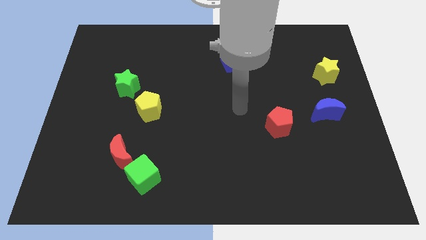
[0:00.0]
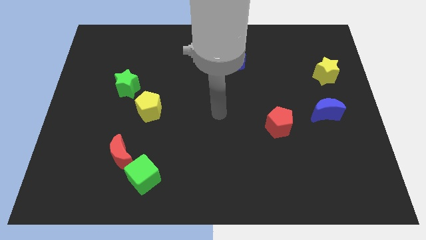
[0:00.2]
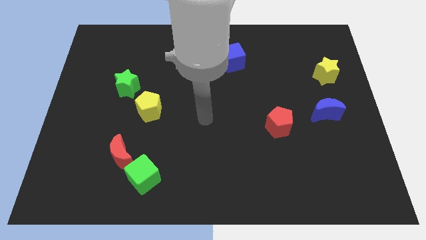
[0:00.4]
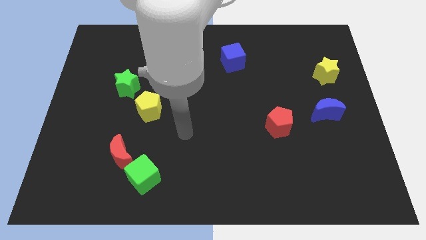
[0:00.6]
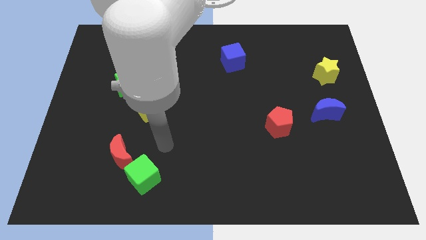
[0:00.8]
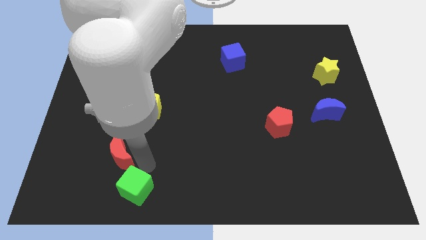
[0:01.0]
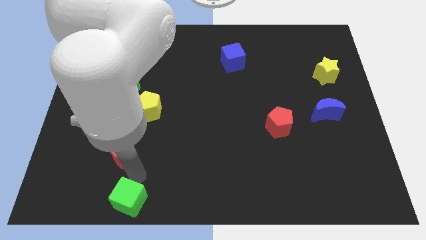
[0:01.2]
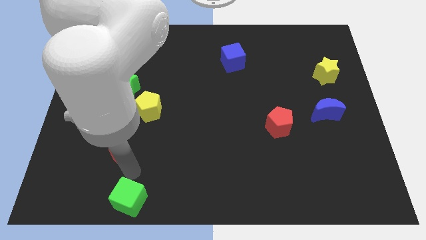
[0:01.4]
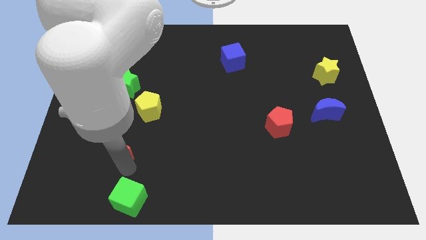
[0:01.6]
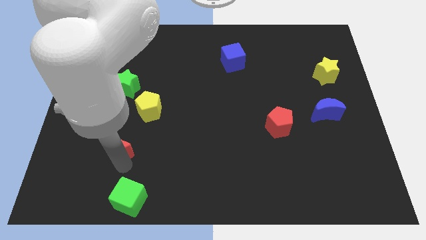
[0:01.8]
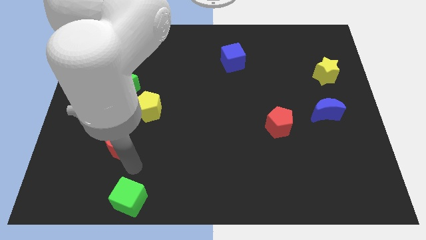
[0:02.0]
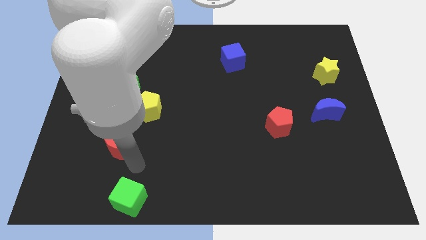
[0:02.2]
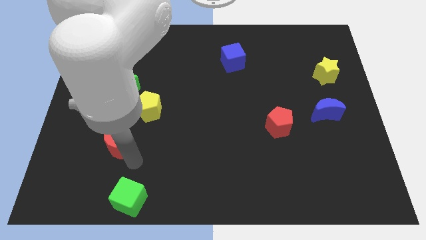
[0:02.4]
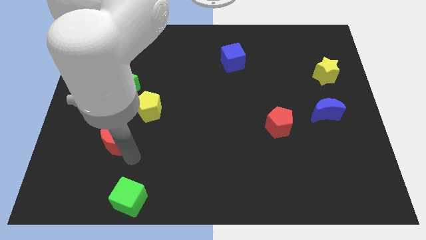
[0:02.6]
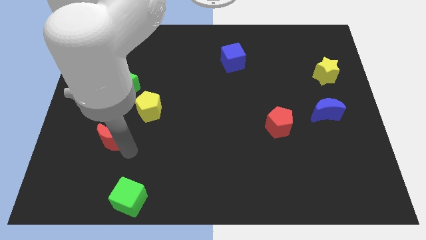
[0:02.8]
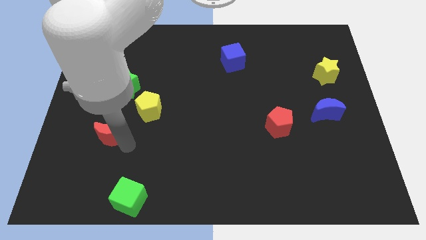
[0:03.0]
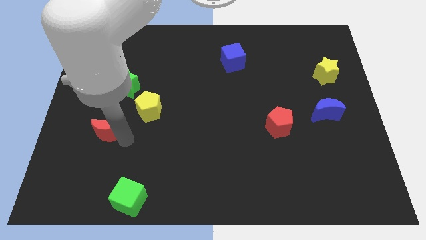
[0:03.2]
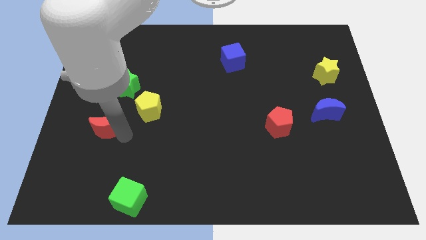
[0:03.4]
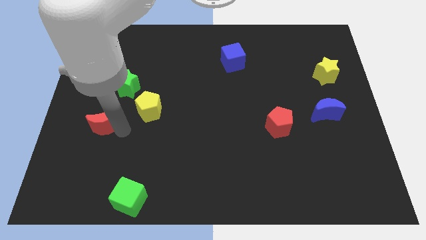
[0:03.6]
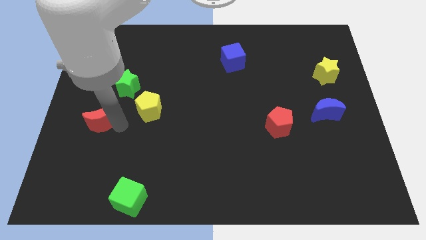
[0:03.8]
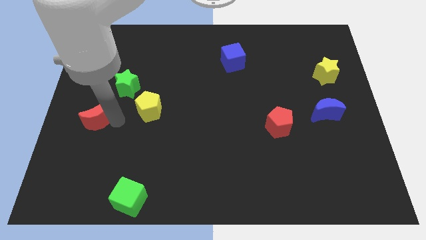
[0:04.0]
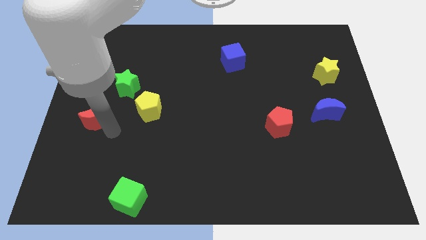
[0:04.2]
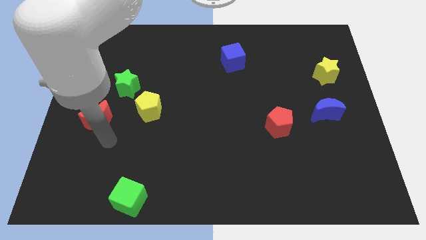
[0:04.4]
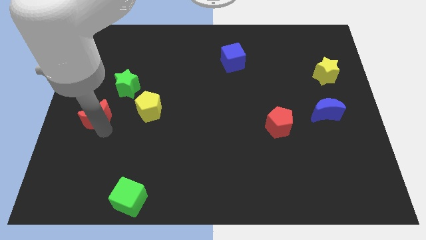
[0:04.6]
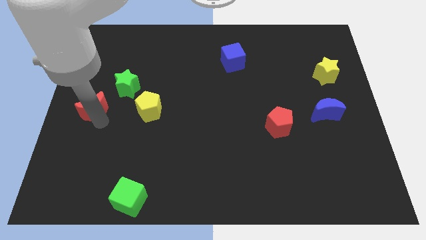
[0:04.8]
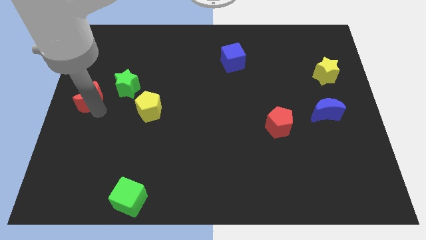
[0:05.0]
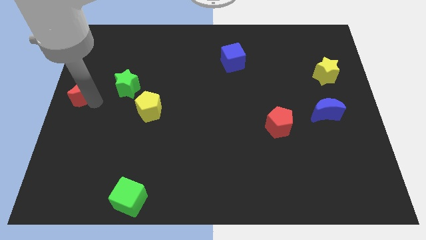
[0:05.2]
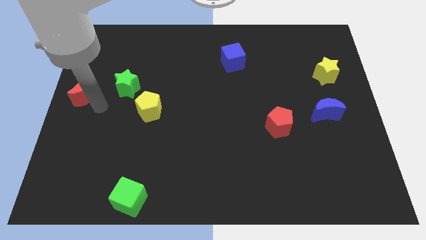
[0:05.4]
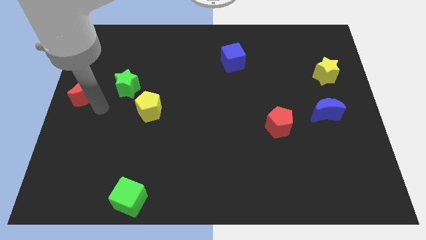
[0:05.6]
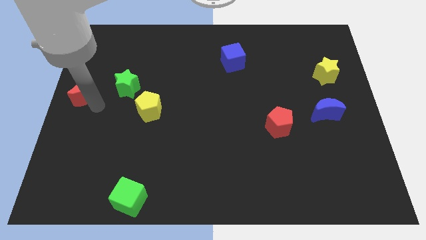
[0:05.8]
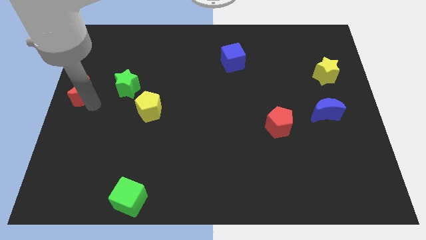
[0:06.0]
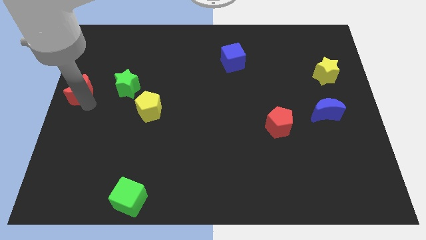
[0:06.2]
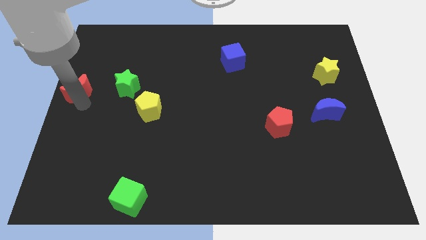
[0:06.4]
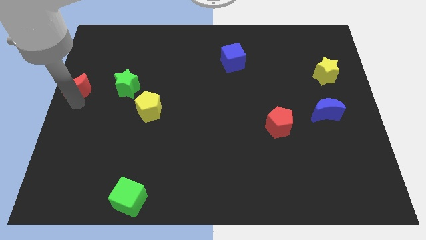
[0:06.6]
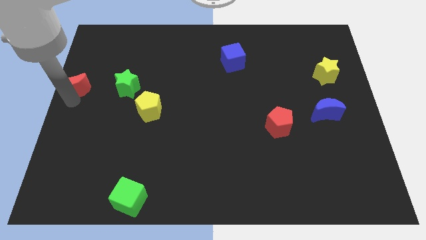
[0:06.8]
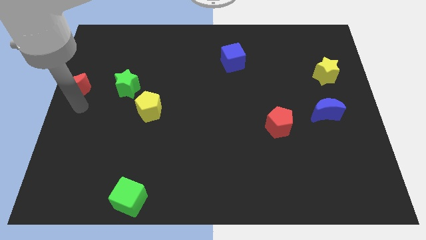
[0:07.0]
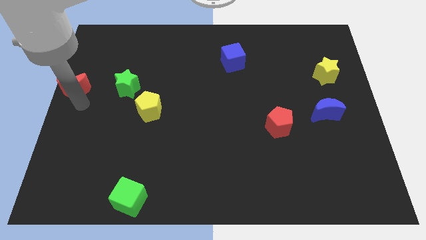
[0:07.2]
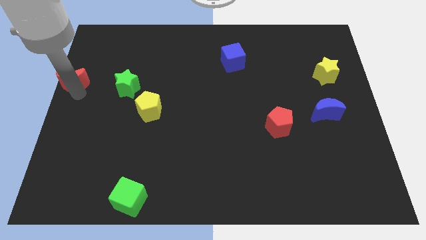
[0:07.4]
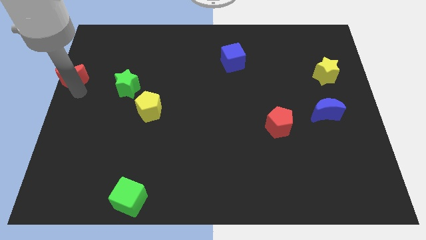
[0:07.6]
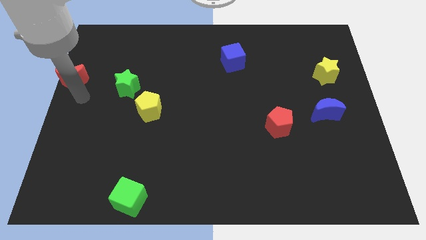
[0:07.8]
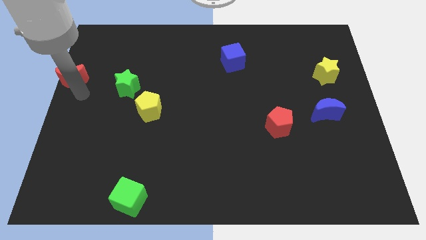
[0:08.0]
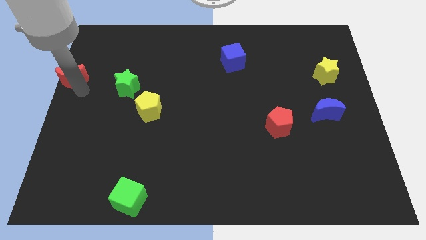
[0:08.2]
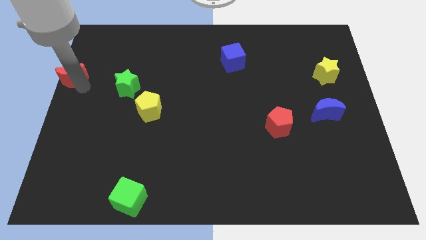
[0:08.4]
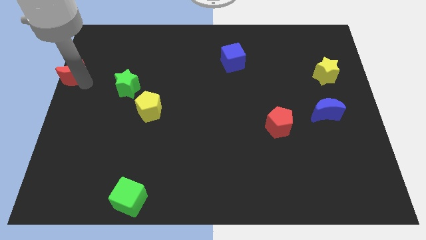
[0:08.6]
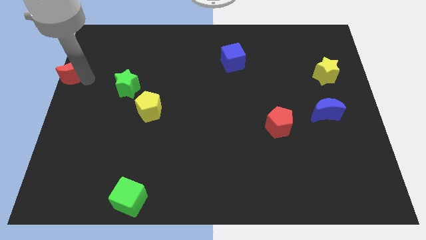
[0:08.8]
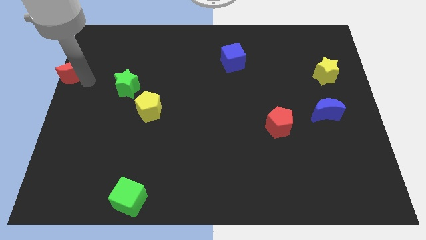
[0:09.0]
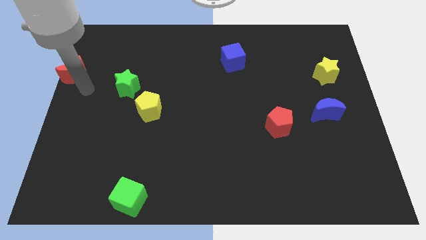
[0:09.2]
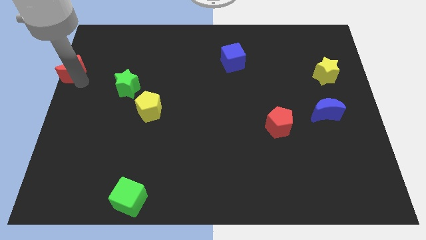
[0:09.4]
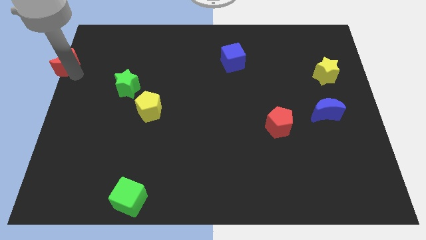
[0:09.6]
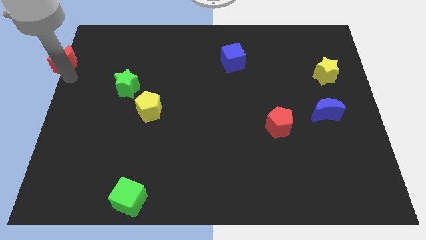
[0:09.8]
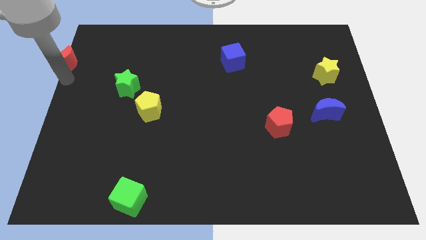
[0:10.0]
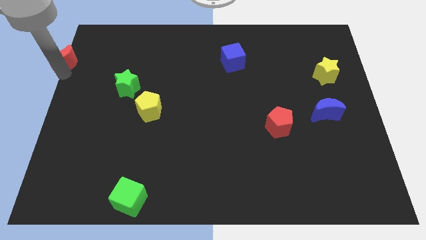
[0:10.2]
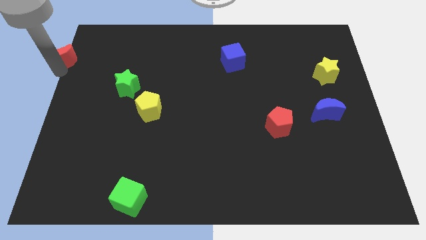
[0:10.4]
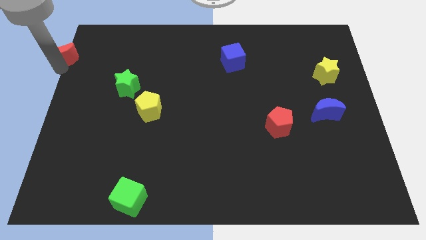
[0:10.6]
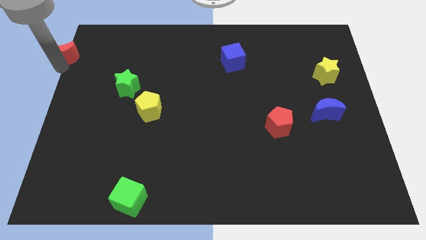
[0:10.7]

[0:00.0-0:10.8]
push the red moon to the upper left corner
